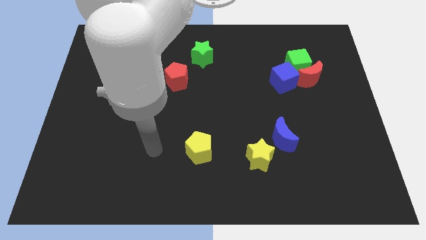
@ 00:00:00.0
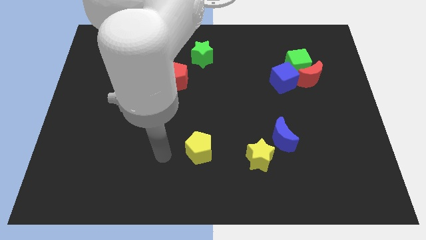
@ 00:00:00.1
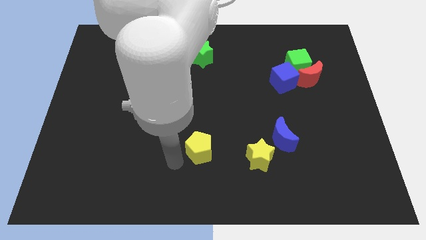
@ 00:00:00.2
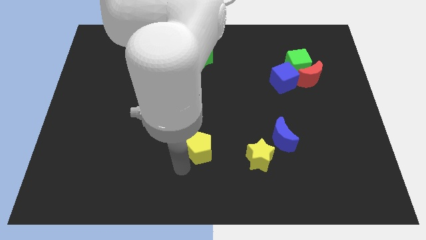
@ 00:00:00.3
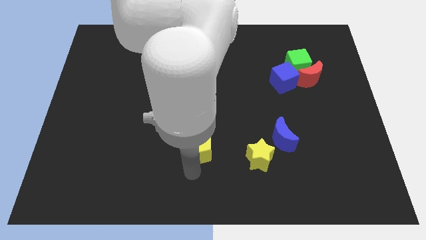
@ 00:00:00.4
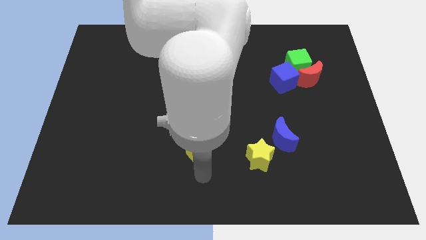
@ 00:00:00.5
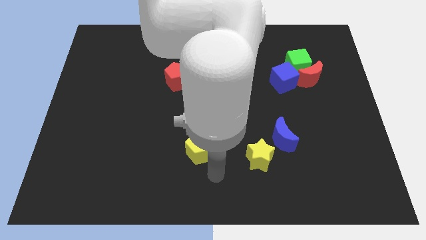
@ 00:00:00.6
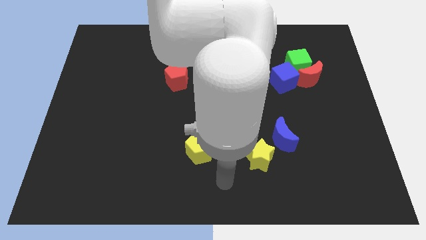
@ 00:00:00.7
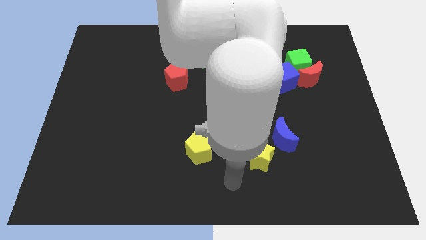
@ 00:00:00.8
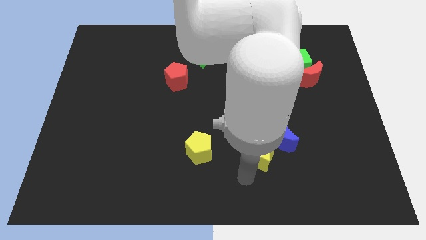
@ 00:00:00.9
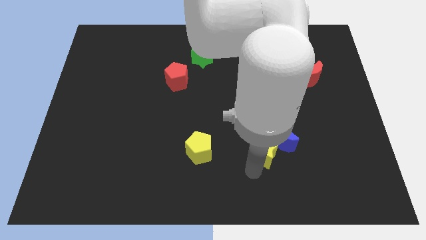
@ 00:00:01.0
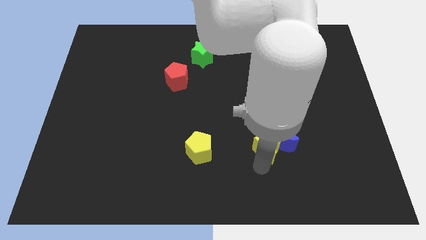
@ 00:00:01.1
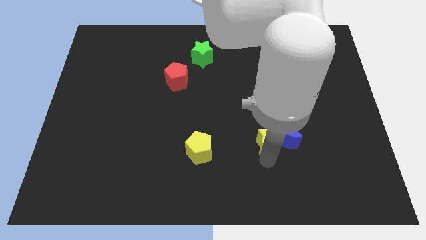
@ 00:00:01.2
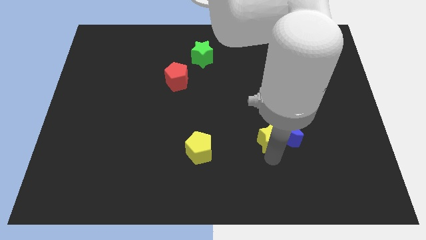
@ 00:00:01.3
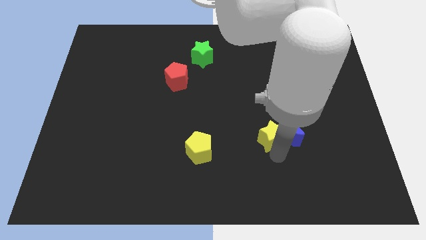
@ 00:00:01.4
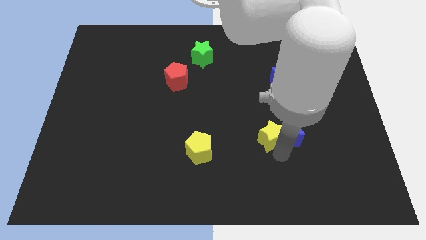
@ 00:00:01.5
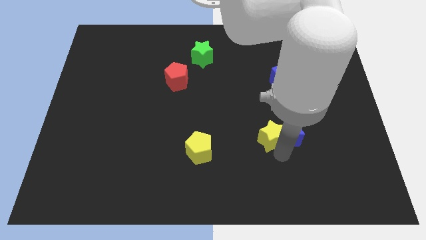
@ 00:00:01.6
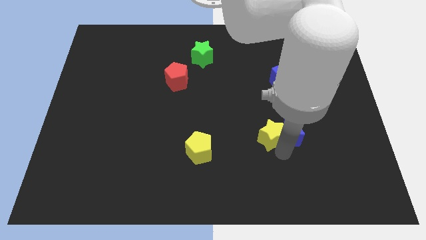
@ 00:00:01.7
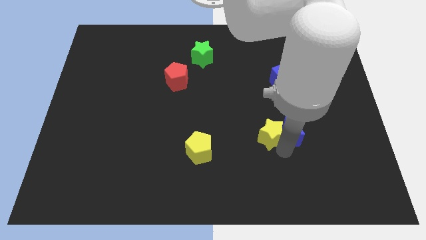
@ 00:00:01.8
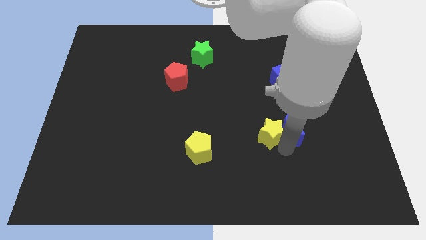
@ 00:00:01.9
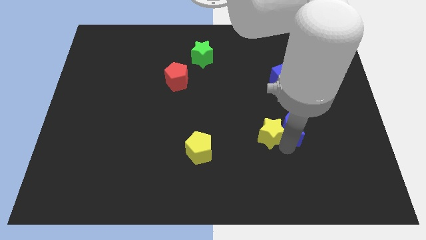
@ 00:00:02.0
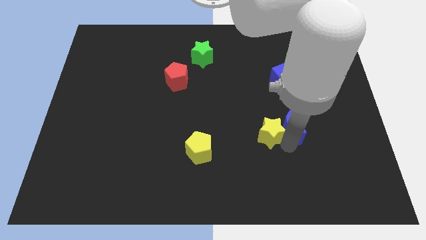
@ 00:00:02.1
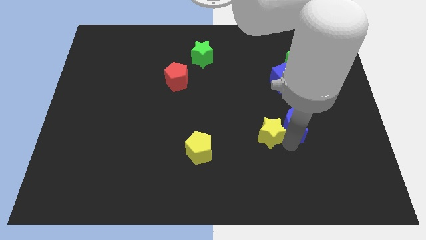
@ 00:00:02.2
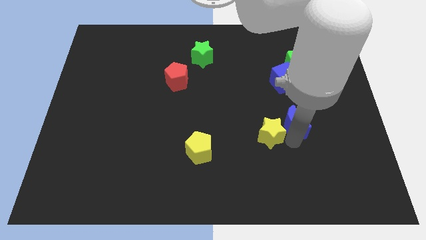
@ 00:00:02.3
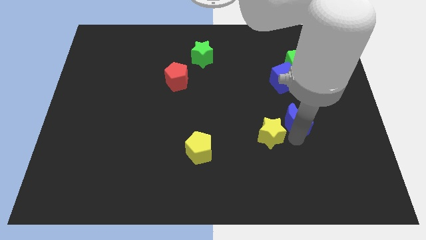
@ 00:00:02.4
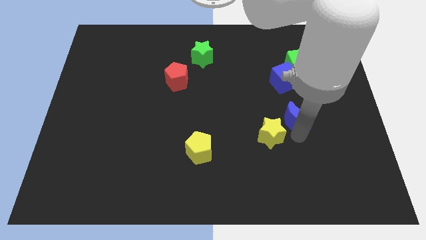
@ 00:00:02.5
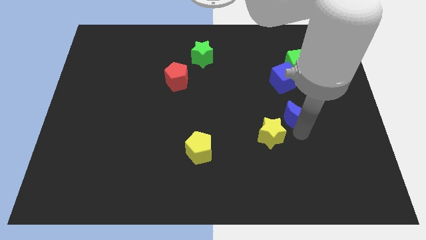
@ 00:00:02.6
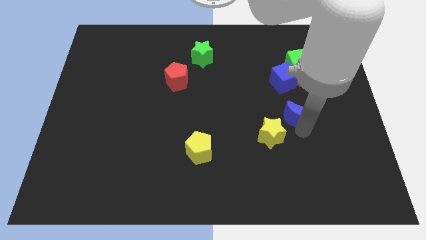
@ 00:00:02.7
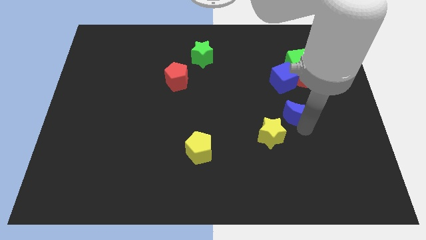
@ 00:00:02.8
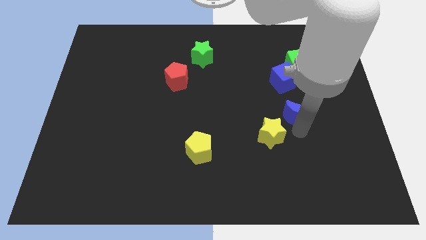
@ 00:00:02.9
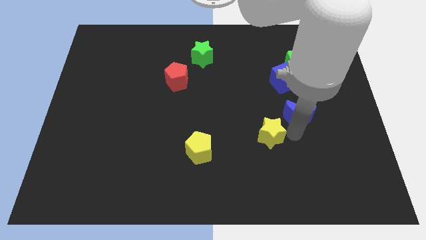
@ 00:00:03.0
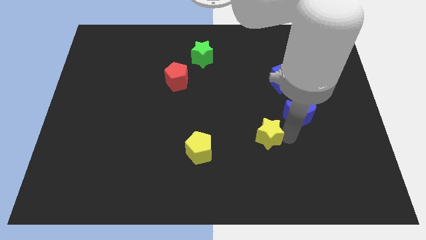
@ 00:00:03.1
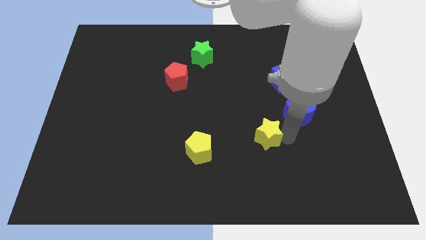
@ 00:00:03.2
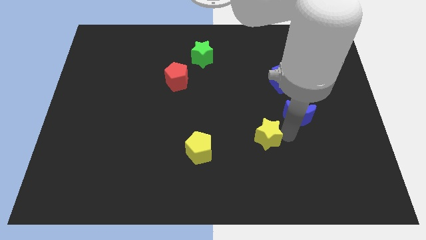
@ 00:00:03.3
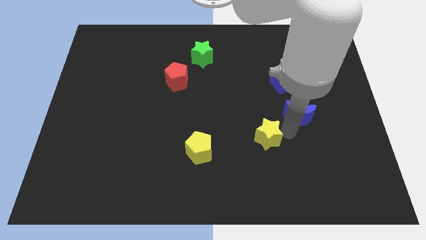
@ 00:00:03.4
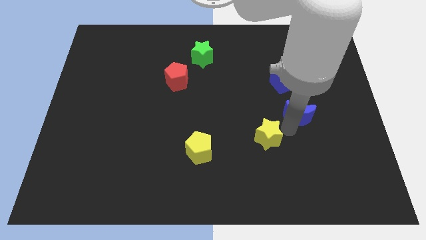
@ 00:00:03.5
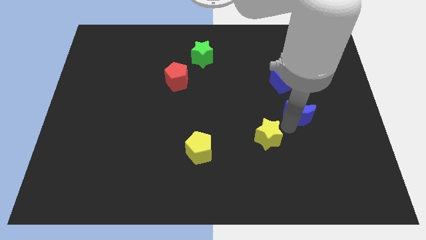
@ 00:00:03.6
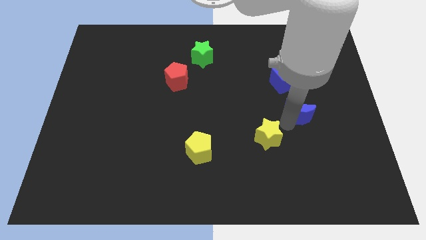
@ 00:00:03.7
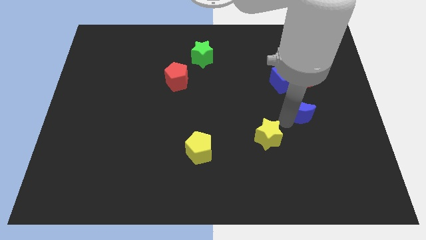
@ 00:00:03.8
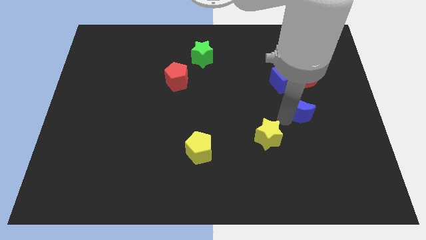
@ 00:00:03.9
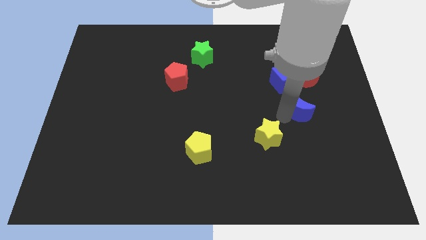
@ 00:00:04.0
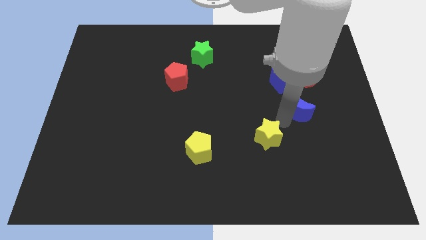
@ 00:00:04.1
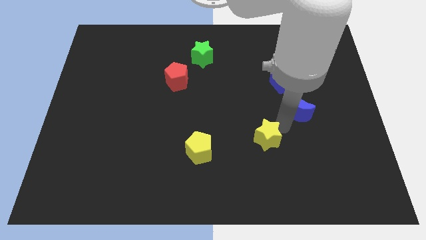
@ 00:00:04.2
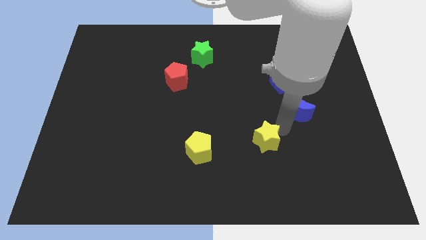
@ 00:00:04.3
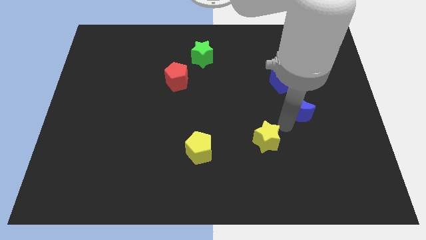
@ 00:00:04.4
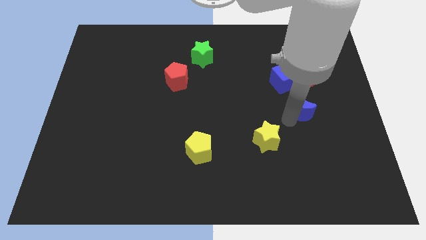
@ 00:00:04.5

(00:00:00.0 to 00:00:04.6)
put the blue moon to the bottom right side of the blue cube

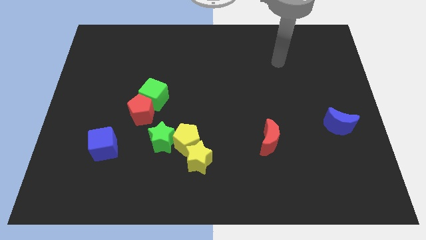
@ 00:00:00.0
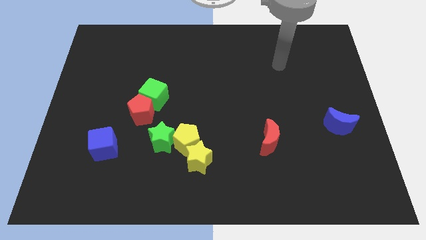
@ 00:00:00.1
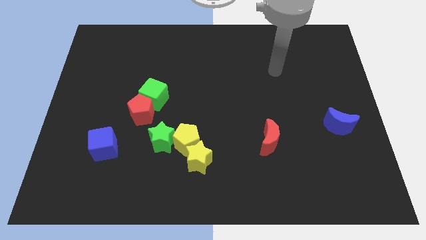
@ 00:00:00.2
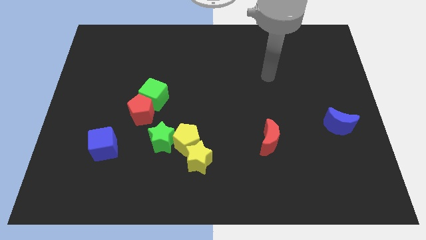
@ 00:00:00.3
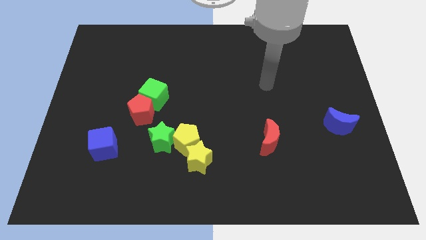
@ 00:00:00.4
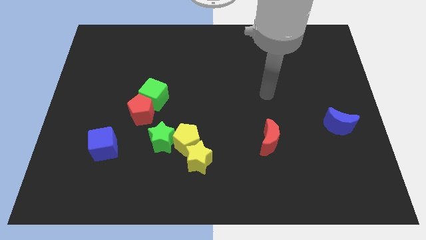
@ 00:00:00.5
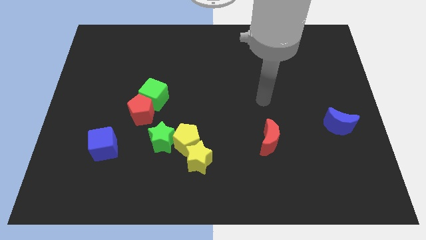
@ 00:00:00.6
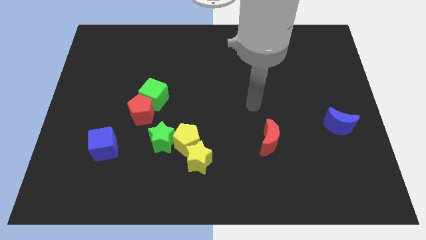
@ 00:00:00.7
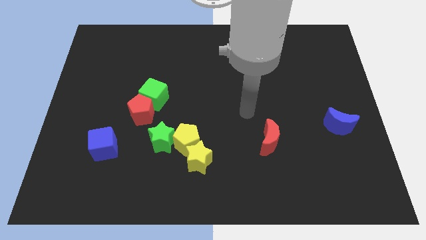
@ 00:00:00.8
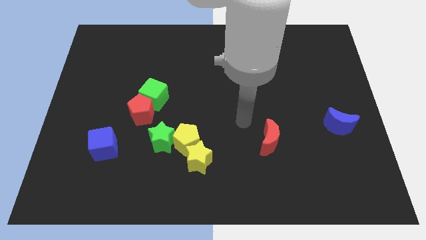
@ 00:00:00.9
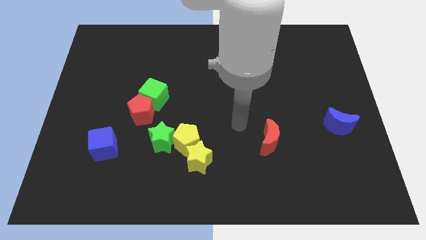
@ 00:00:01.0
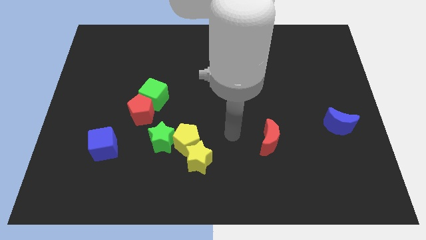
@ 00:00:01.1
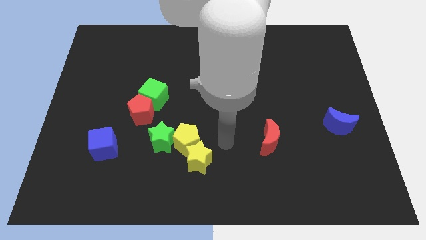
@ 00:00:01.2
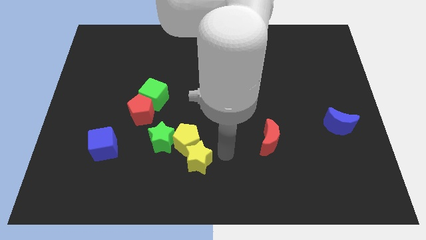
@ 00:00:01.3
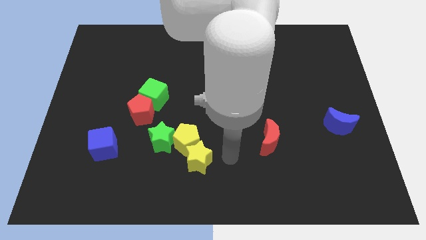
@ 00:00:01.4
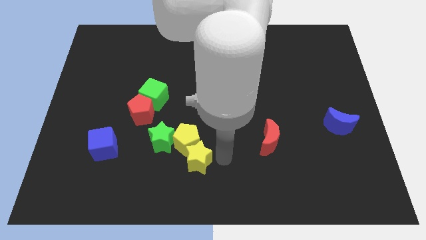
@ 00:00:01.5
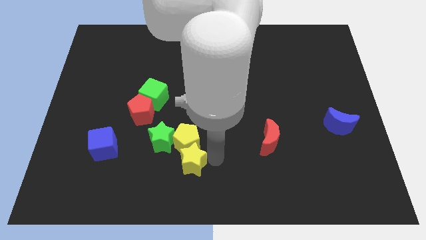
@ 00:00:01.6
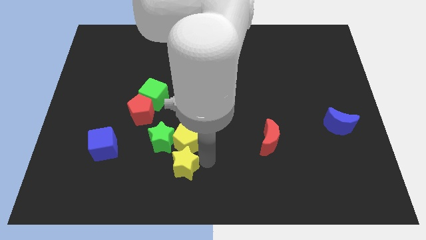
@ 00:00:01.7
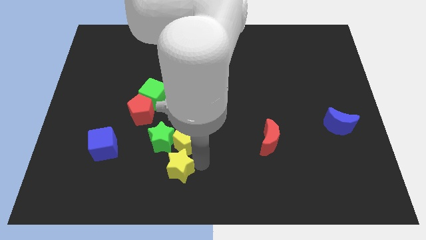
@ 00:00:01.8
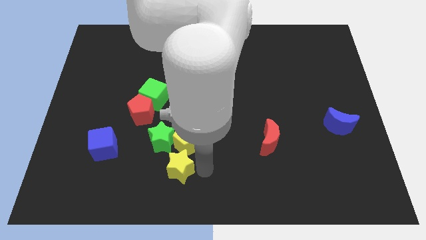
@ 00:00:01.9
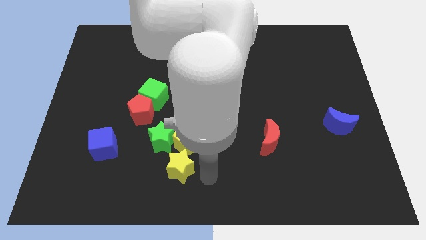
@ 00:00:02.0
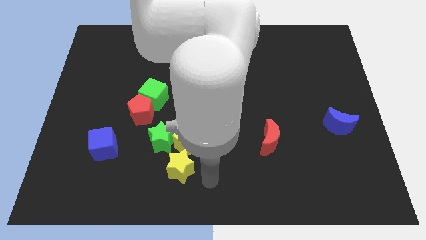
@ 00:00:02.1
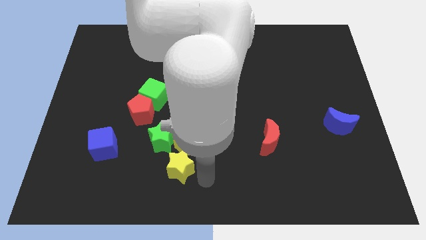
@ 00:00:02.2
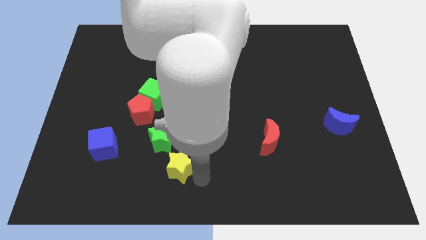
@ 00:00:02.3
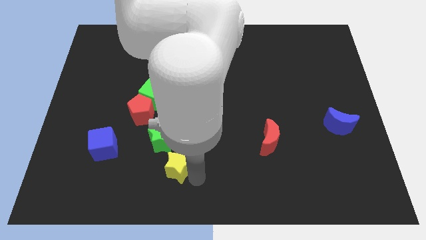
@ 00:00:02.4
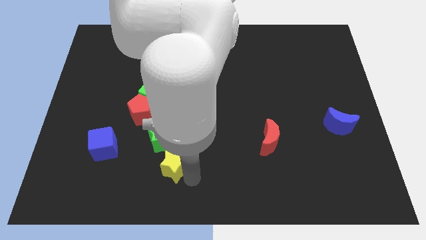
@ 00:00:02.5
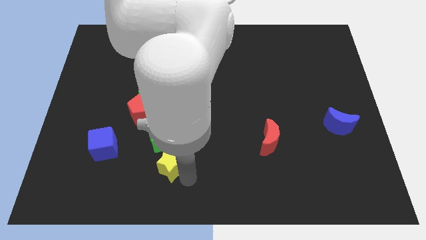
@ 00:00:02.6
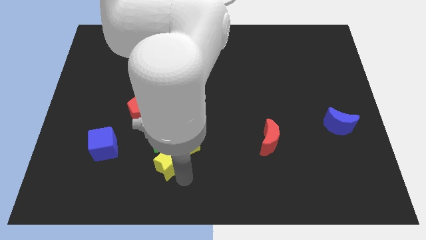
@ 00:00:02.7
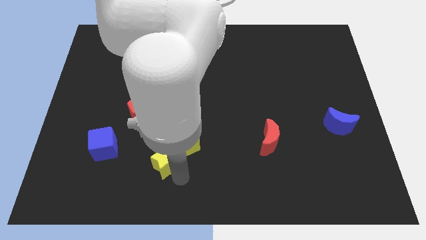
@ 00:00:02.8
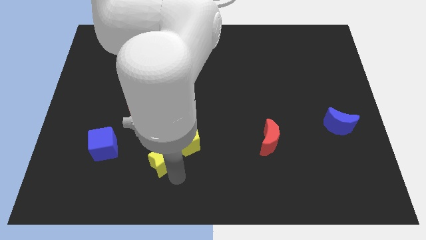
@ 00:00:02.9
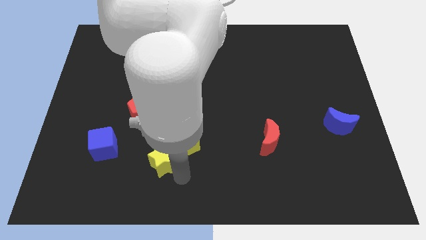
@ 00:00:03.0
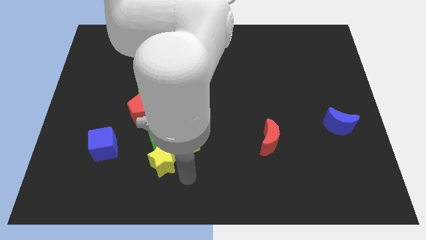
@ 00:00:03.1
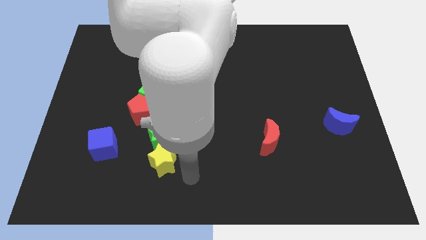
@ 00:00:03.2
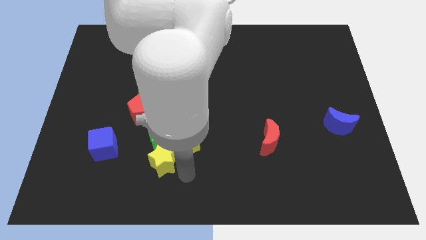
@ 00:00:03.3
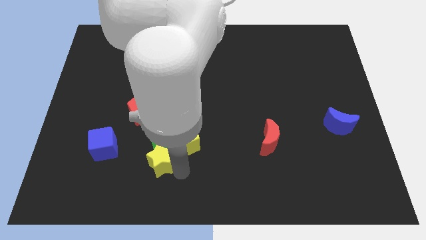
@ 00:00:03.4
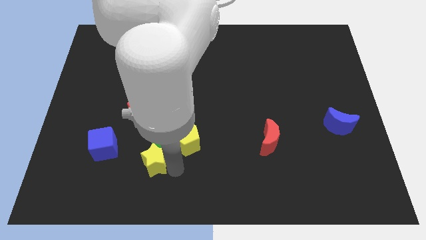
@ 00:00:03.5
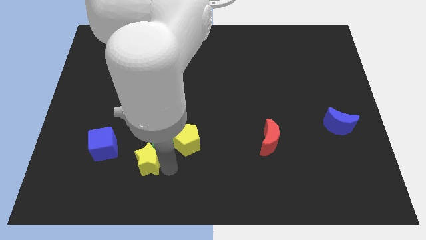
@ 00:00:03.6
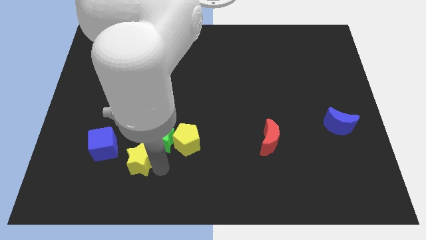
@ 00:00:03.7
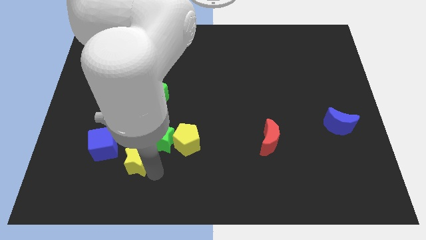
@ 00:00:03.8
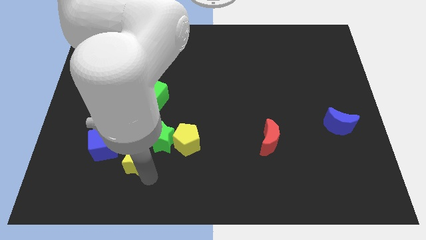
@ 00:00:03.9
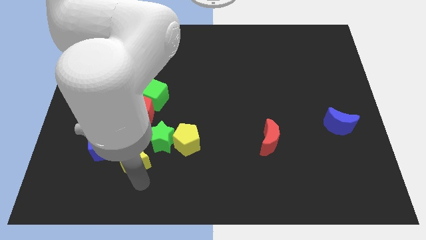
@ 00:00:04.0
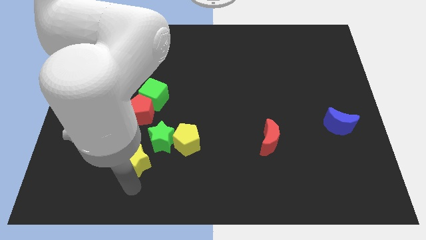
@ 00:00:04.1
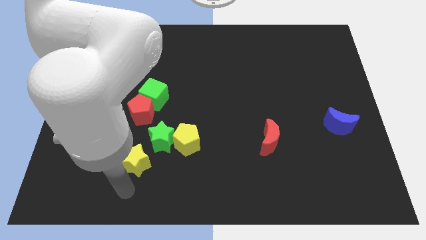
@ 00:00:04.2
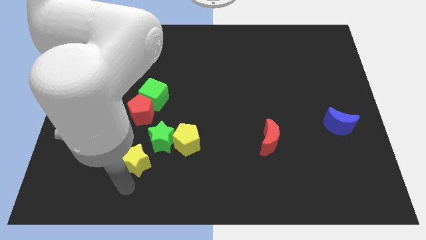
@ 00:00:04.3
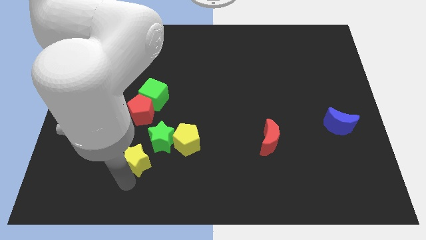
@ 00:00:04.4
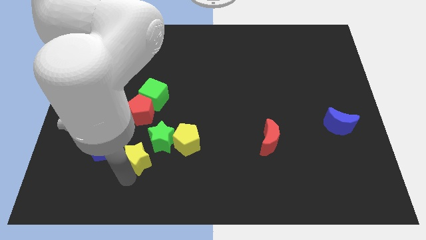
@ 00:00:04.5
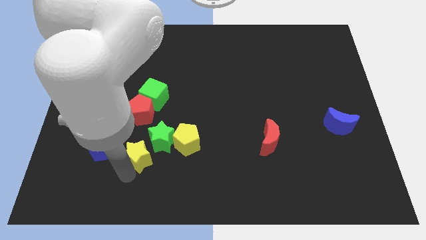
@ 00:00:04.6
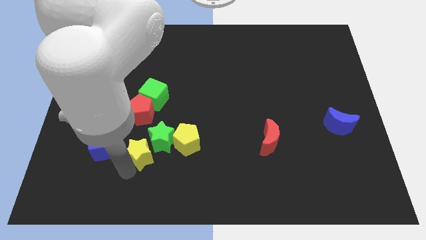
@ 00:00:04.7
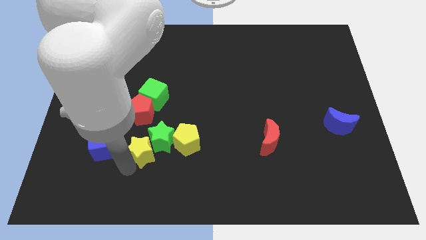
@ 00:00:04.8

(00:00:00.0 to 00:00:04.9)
slide the yellow star to the bottom side of the green cube
